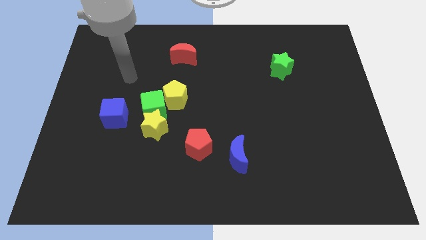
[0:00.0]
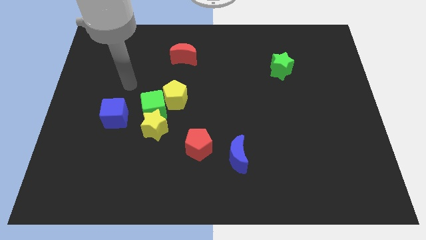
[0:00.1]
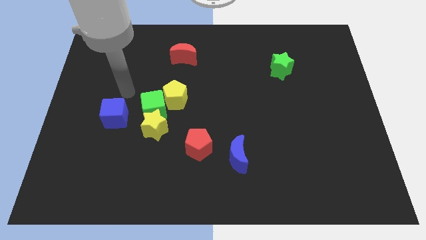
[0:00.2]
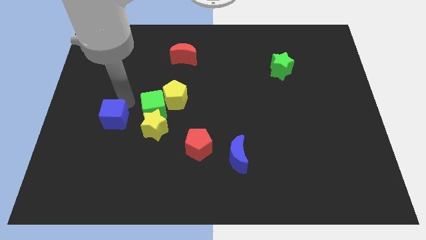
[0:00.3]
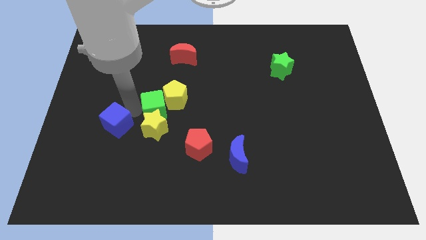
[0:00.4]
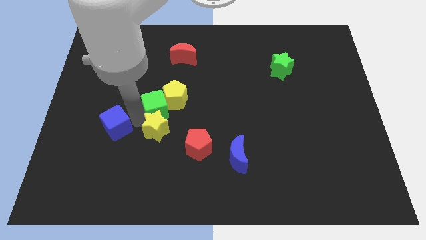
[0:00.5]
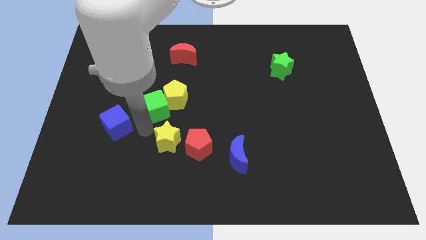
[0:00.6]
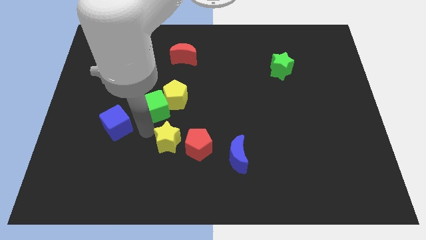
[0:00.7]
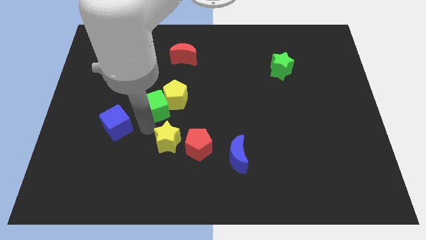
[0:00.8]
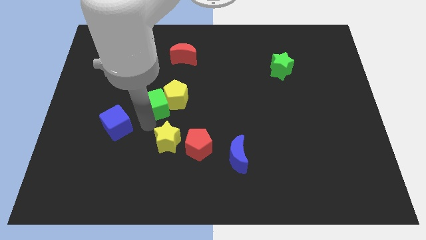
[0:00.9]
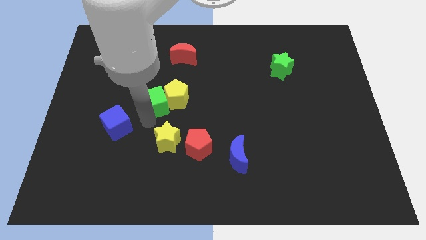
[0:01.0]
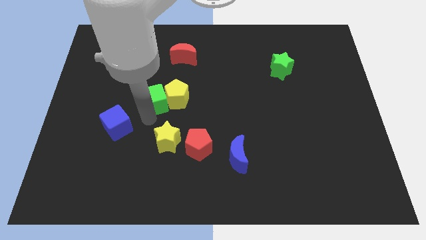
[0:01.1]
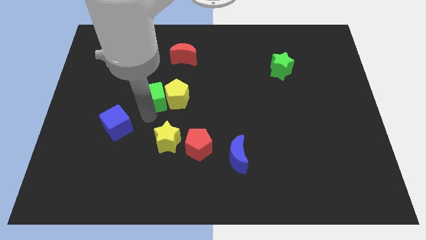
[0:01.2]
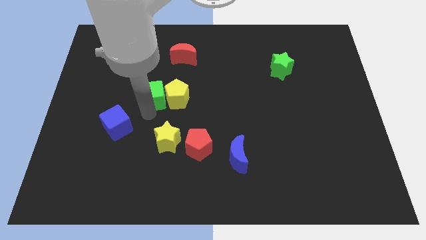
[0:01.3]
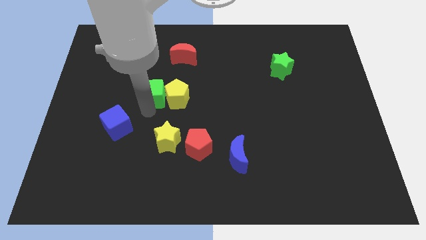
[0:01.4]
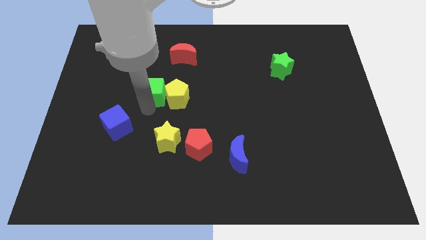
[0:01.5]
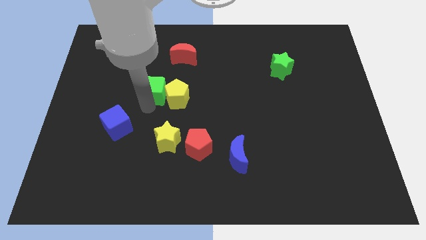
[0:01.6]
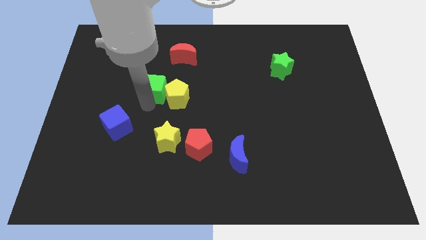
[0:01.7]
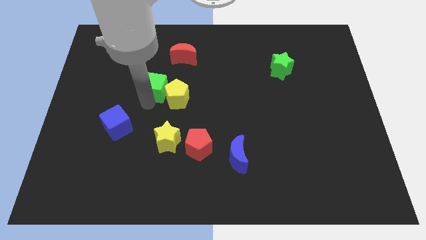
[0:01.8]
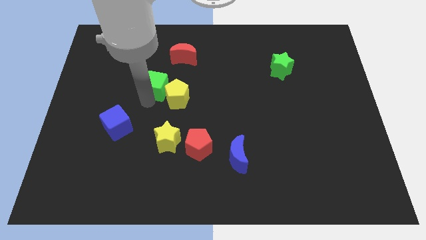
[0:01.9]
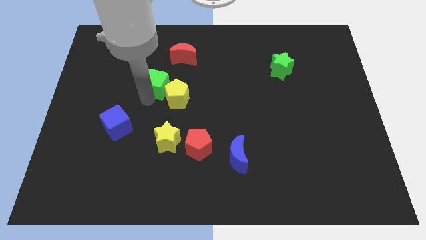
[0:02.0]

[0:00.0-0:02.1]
pull the green cube apart from the clump

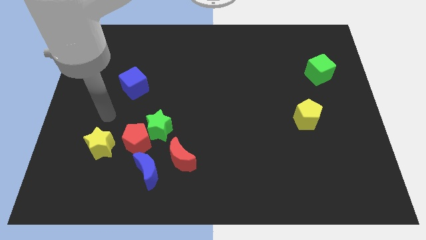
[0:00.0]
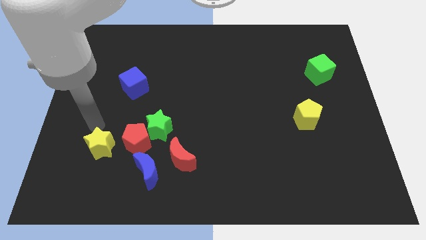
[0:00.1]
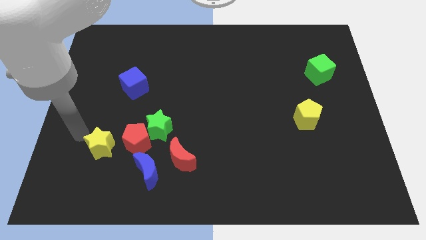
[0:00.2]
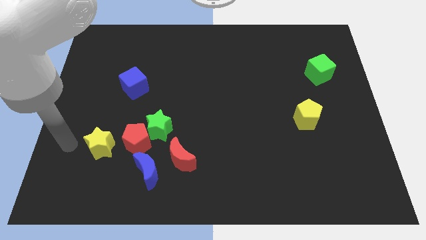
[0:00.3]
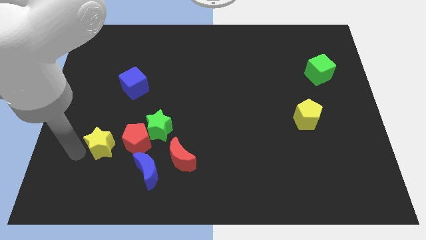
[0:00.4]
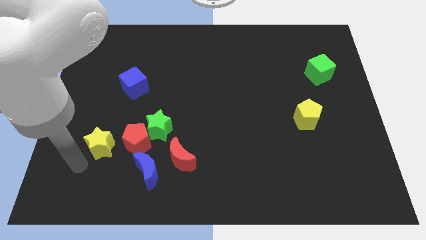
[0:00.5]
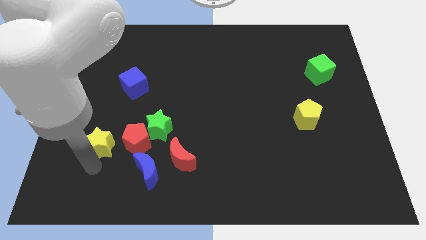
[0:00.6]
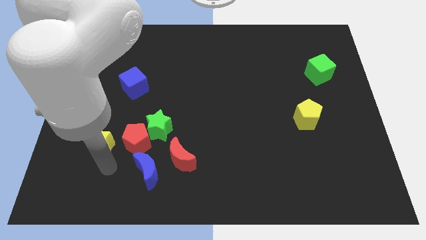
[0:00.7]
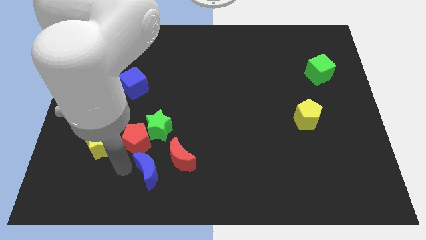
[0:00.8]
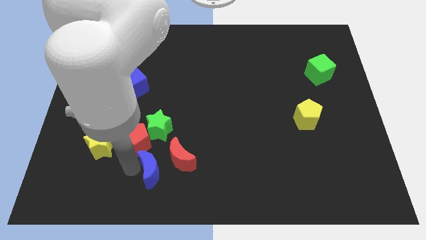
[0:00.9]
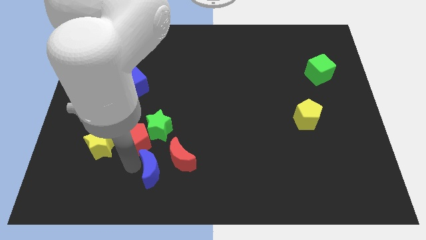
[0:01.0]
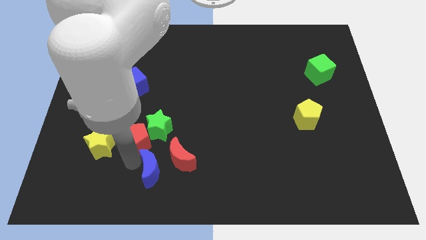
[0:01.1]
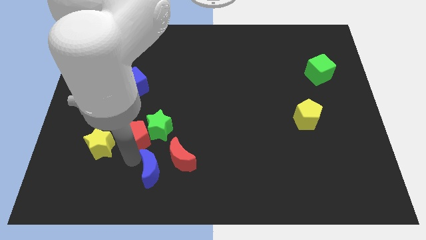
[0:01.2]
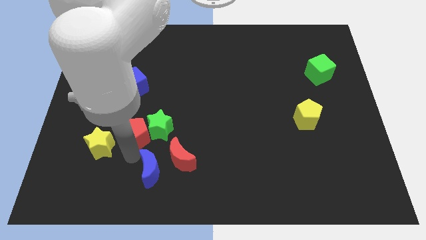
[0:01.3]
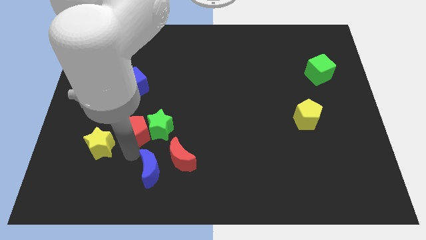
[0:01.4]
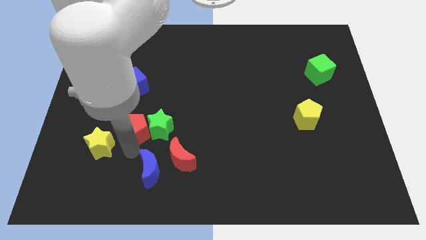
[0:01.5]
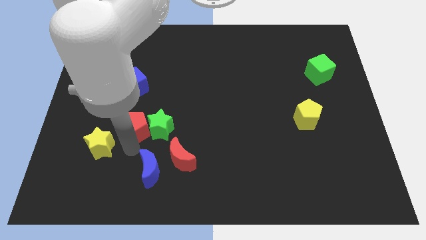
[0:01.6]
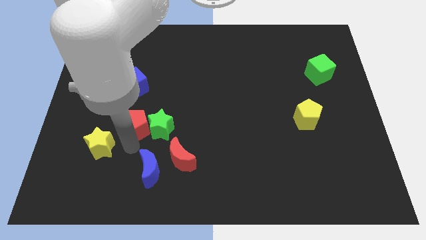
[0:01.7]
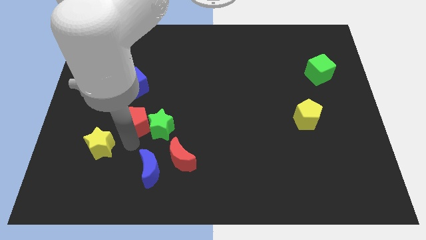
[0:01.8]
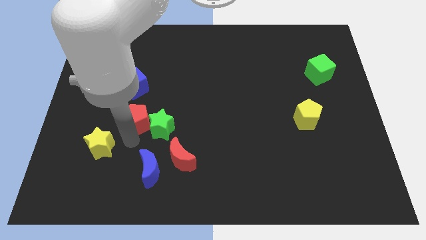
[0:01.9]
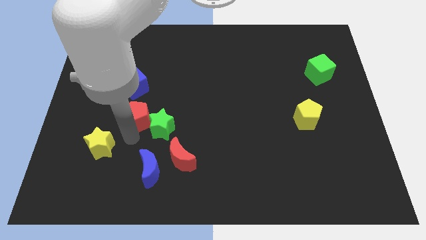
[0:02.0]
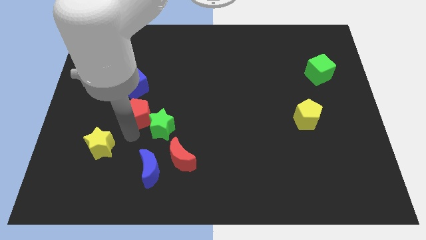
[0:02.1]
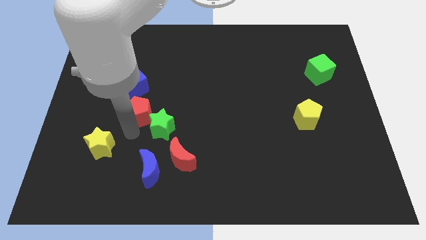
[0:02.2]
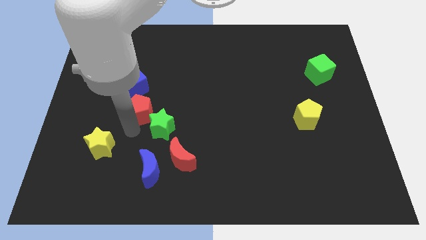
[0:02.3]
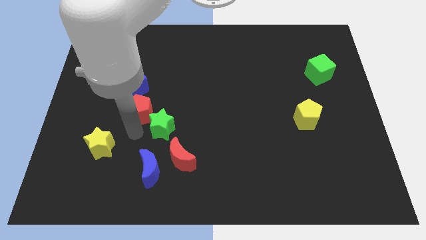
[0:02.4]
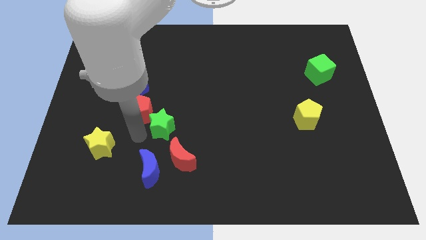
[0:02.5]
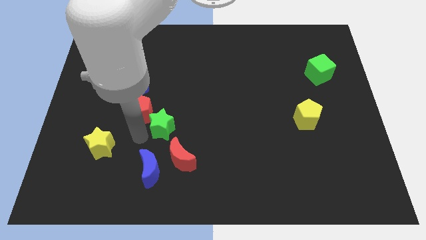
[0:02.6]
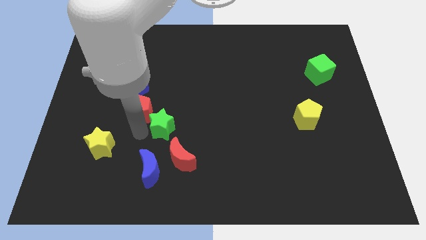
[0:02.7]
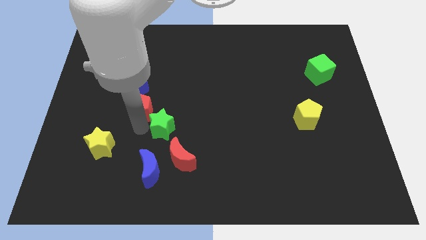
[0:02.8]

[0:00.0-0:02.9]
move the red pentagon away from the group of blocks

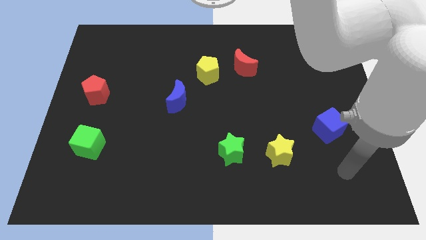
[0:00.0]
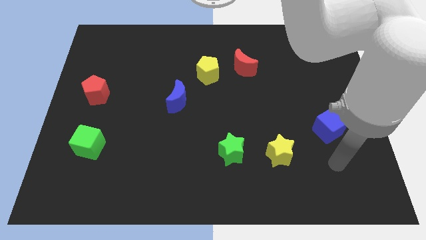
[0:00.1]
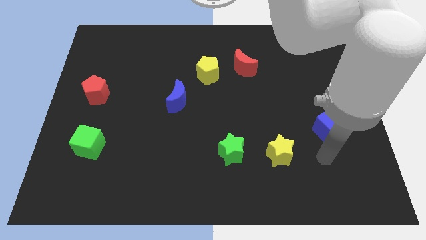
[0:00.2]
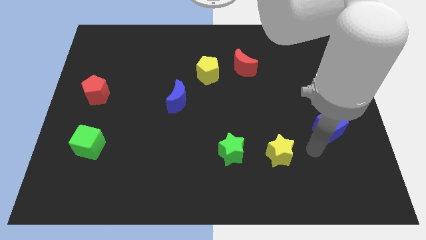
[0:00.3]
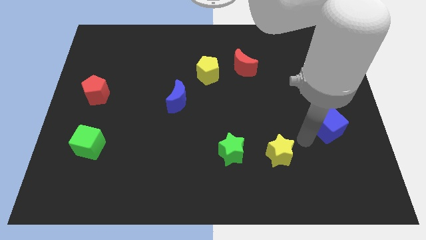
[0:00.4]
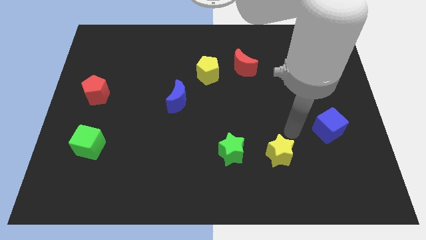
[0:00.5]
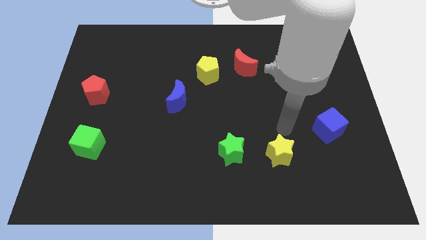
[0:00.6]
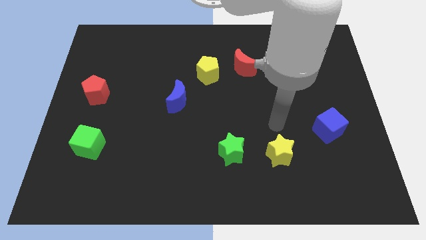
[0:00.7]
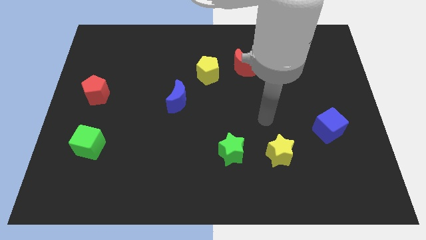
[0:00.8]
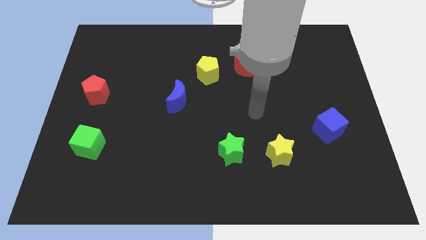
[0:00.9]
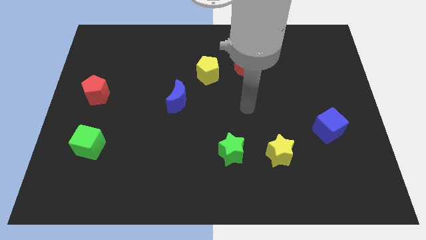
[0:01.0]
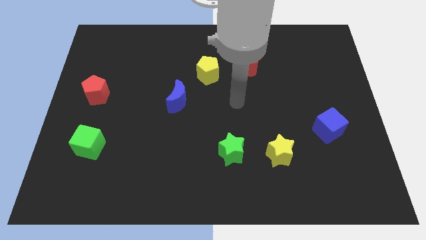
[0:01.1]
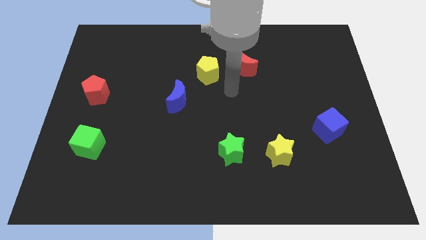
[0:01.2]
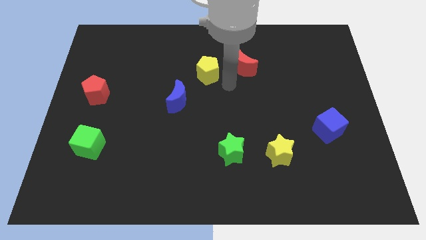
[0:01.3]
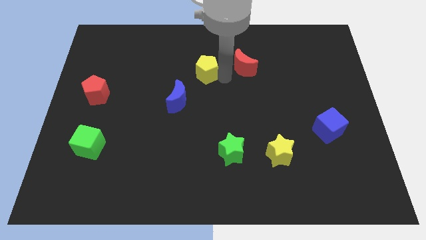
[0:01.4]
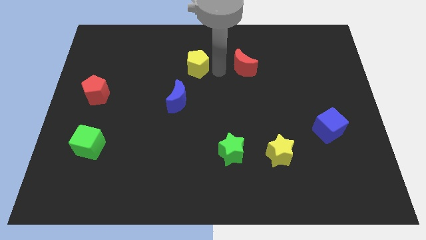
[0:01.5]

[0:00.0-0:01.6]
pull the red moon apart from the yellow pentagon

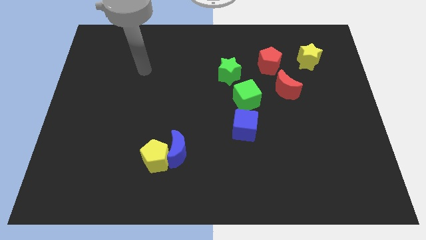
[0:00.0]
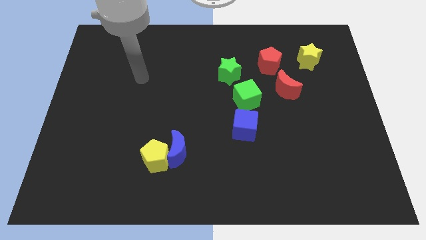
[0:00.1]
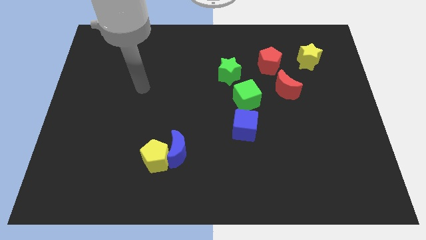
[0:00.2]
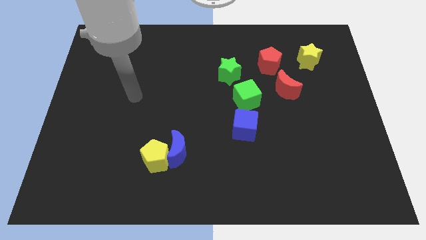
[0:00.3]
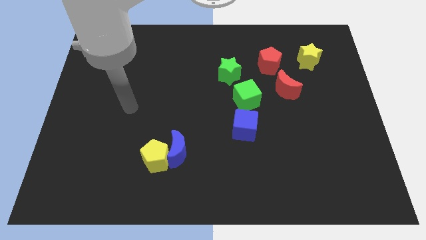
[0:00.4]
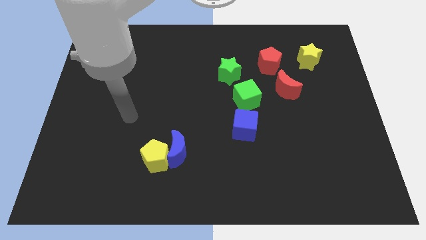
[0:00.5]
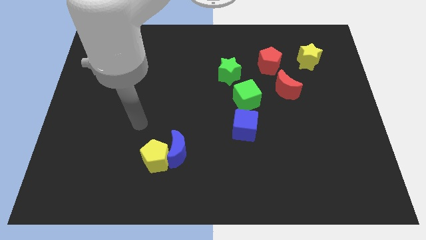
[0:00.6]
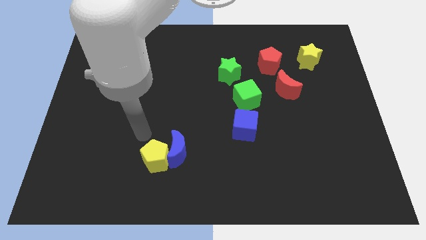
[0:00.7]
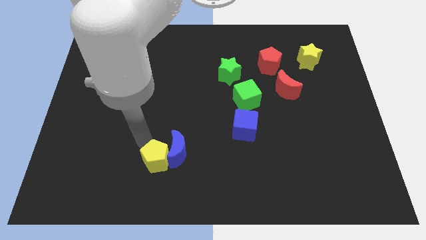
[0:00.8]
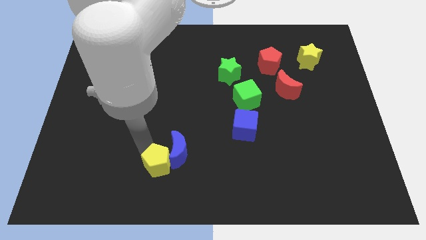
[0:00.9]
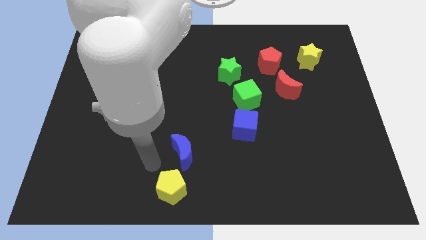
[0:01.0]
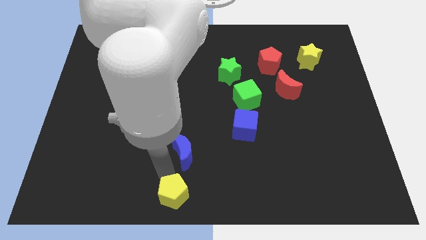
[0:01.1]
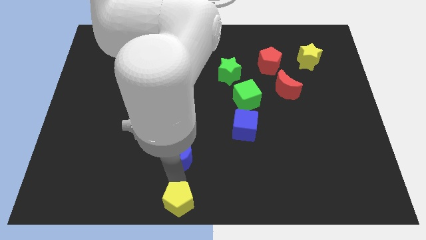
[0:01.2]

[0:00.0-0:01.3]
pull the blue moon apart from the yellow pentagon

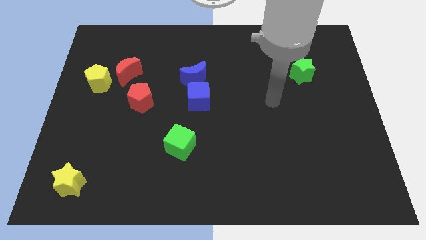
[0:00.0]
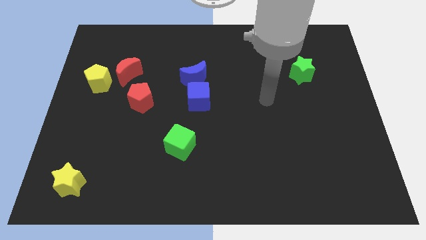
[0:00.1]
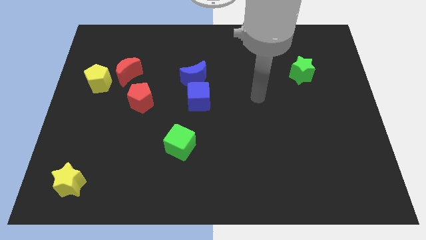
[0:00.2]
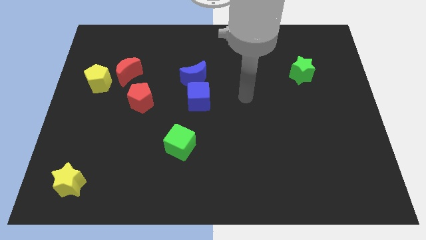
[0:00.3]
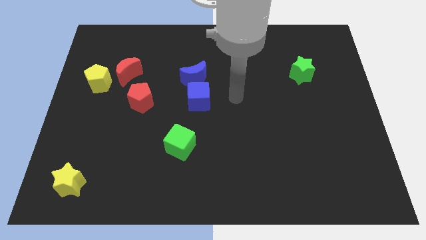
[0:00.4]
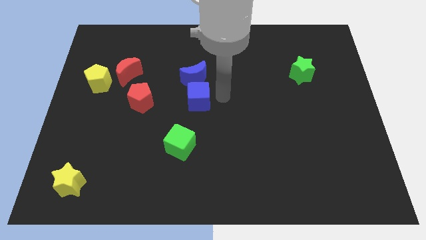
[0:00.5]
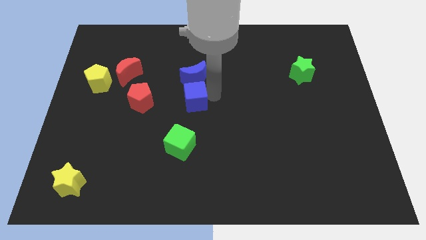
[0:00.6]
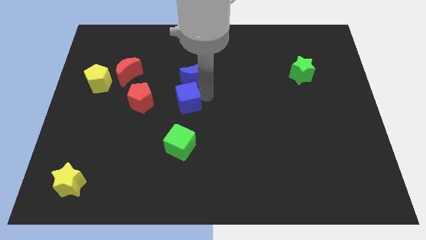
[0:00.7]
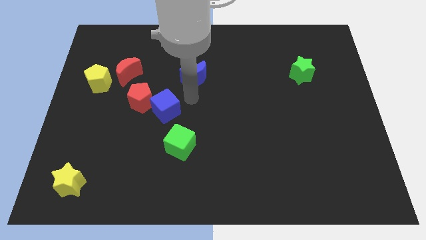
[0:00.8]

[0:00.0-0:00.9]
move the blue moon away from the blue cube

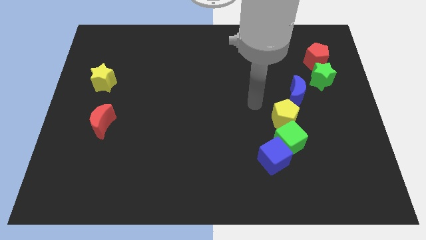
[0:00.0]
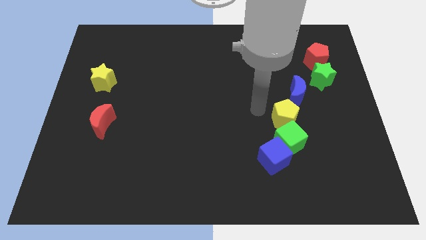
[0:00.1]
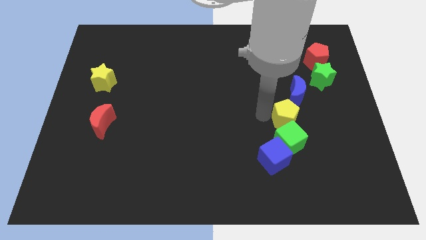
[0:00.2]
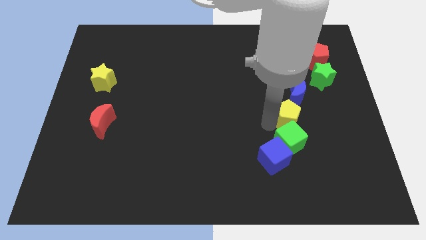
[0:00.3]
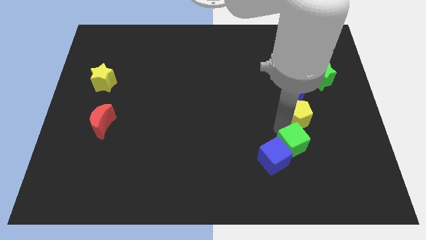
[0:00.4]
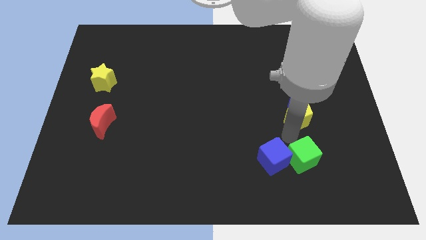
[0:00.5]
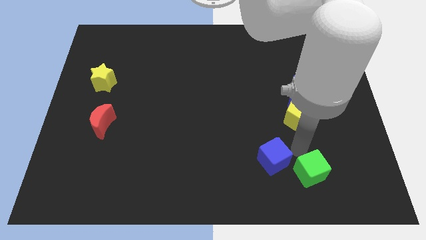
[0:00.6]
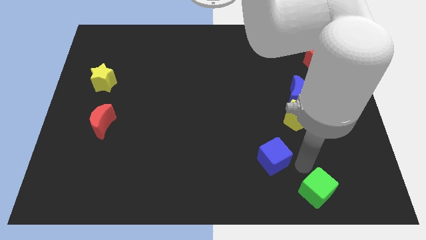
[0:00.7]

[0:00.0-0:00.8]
separate the blue cube from the green cube
